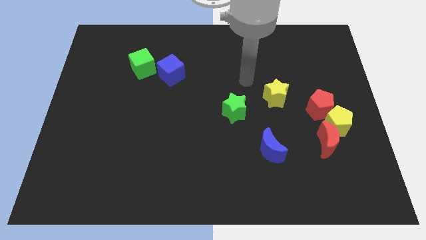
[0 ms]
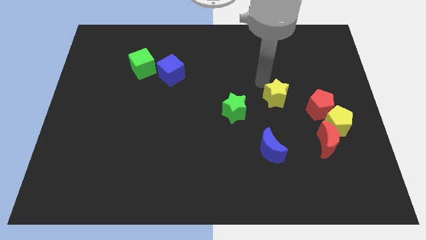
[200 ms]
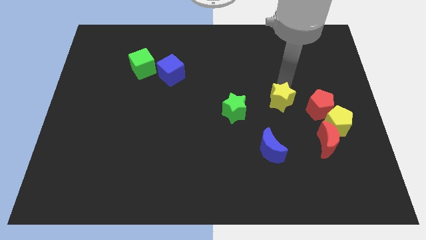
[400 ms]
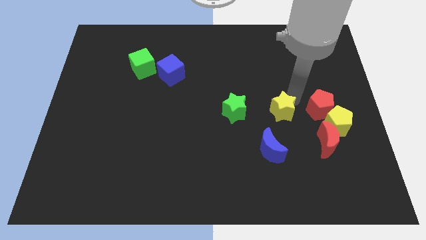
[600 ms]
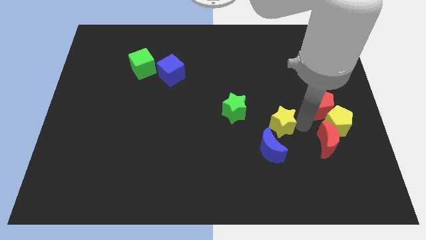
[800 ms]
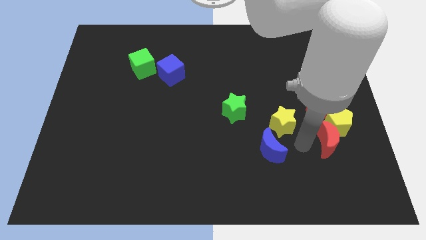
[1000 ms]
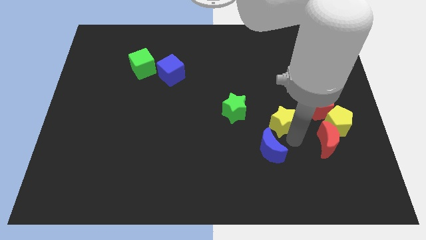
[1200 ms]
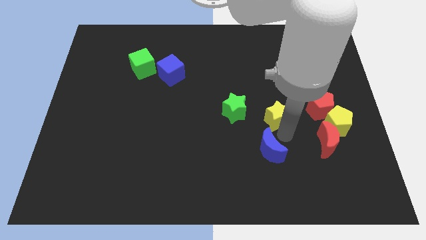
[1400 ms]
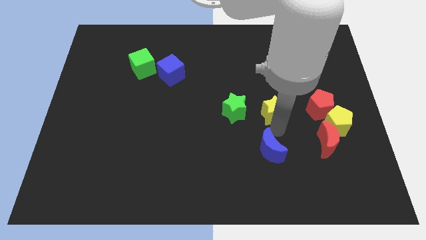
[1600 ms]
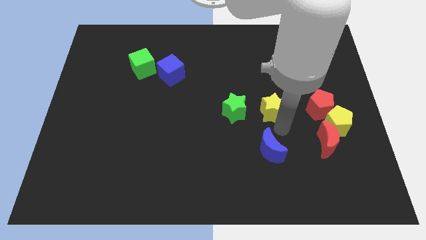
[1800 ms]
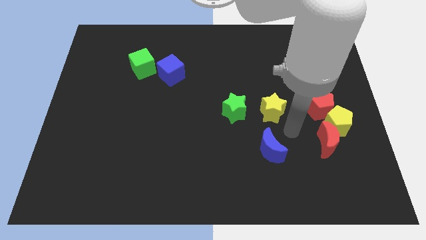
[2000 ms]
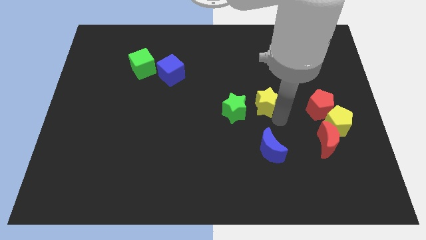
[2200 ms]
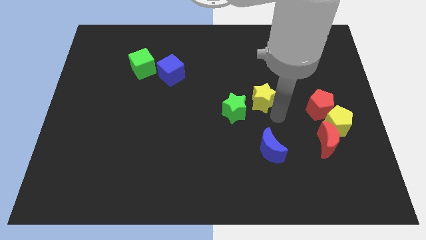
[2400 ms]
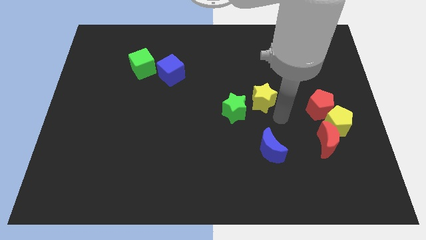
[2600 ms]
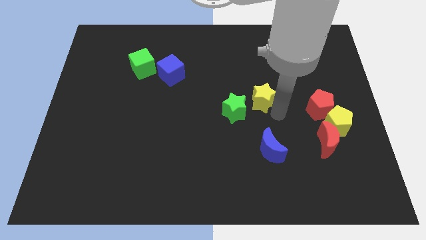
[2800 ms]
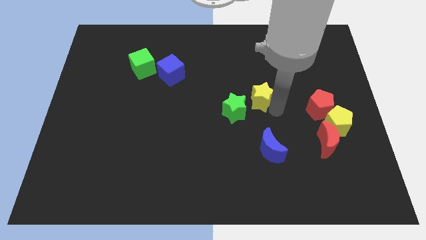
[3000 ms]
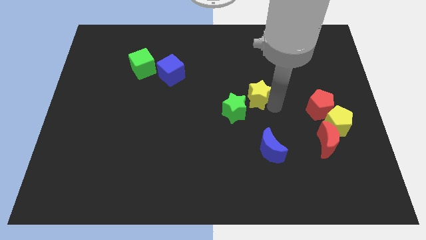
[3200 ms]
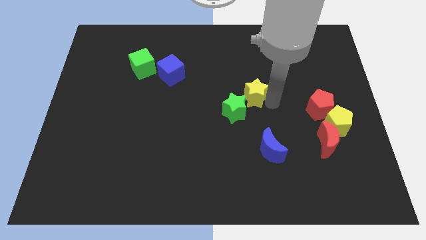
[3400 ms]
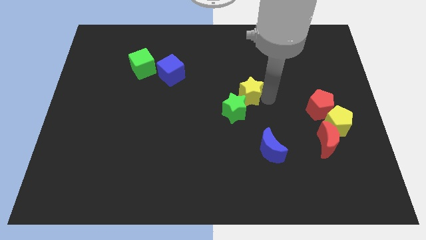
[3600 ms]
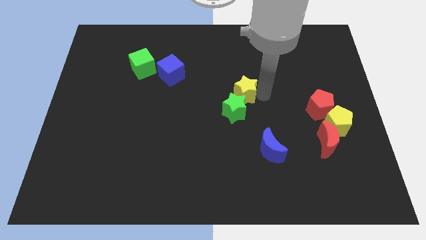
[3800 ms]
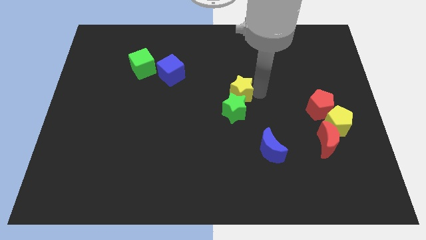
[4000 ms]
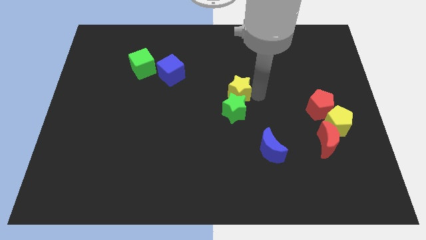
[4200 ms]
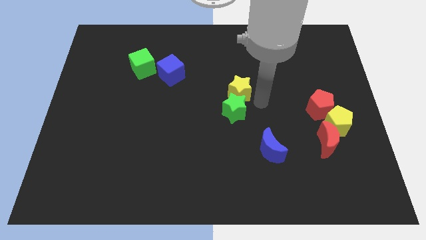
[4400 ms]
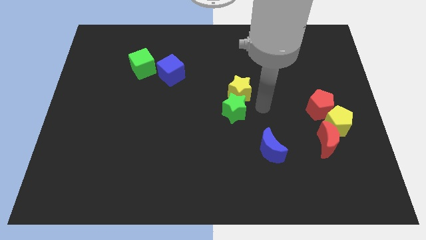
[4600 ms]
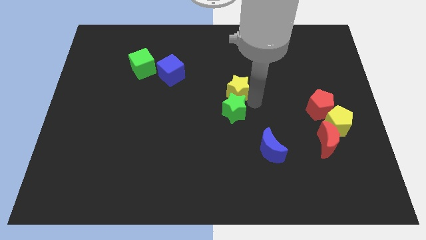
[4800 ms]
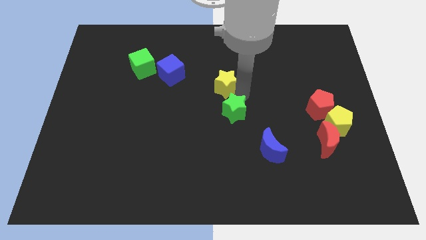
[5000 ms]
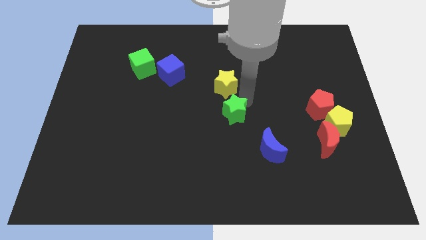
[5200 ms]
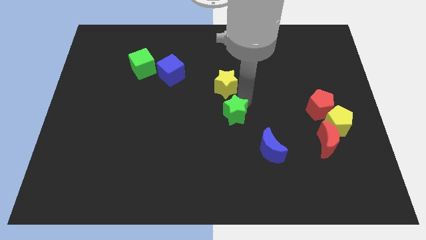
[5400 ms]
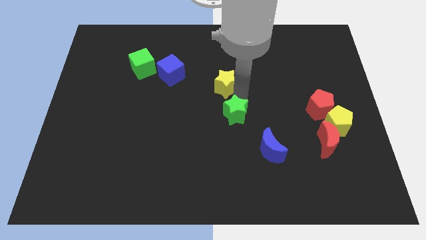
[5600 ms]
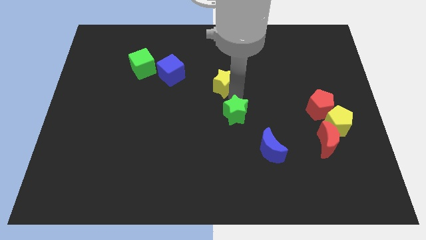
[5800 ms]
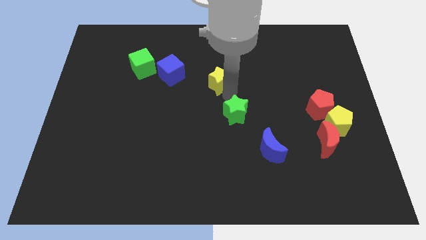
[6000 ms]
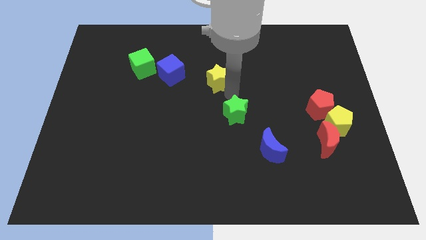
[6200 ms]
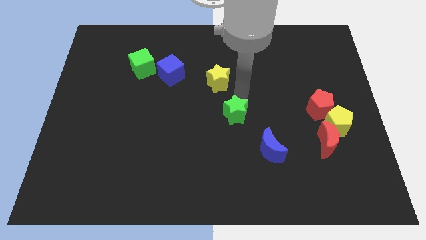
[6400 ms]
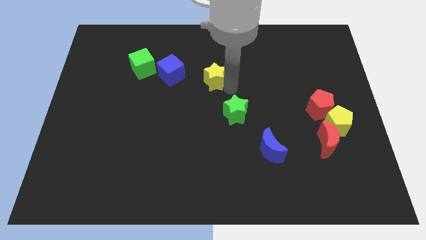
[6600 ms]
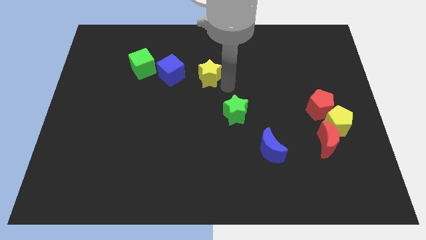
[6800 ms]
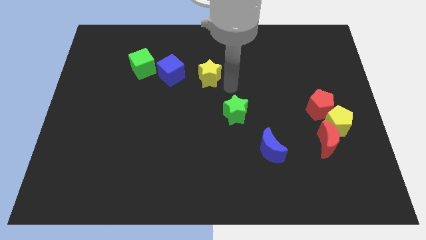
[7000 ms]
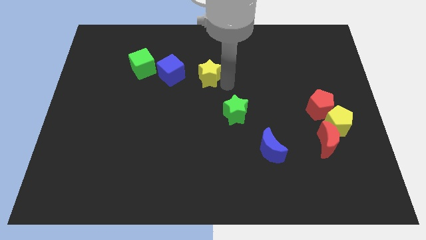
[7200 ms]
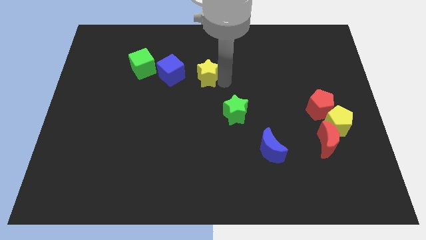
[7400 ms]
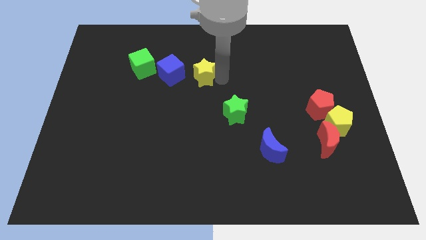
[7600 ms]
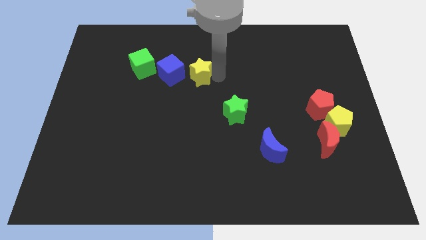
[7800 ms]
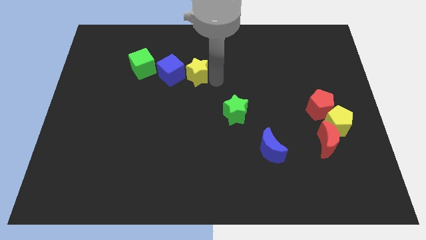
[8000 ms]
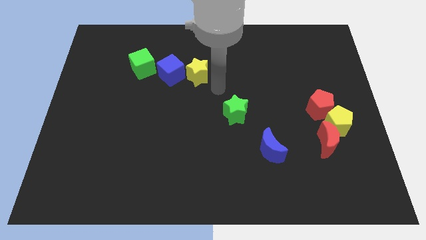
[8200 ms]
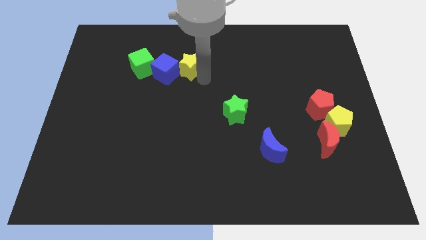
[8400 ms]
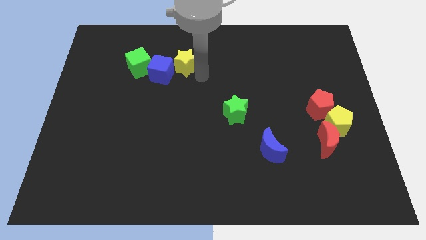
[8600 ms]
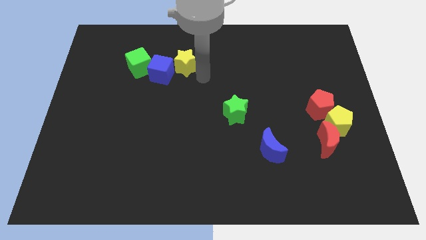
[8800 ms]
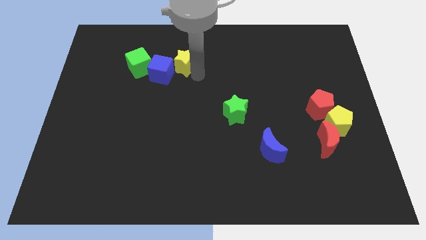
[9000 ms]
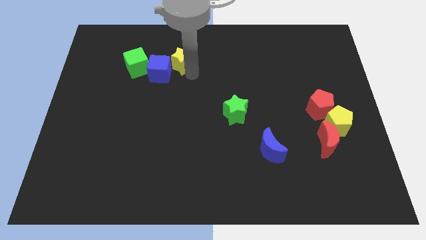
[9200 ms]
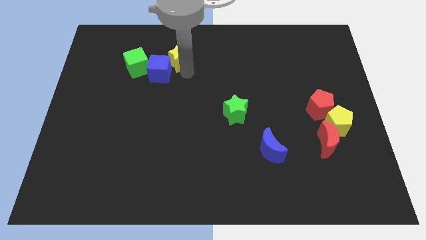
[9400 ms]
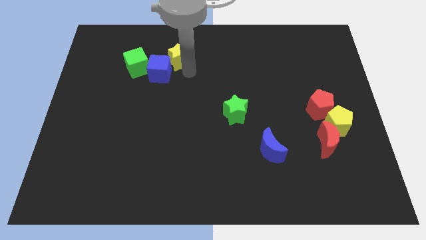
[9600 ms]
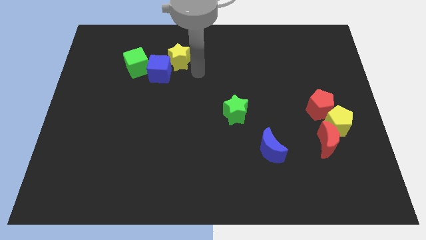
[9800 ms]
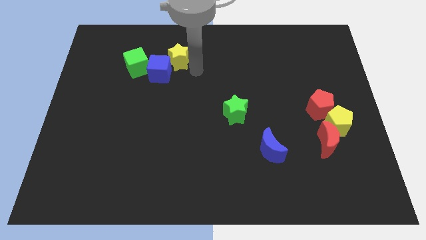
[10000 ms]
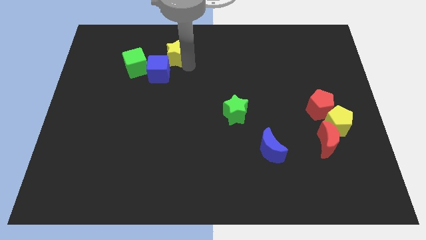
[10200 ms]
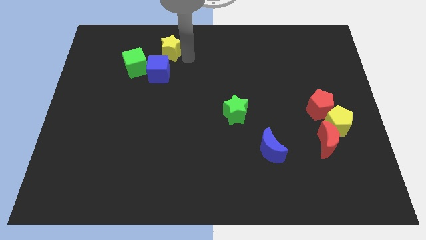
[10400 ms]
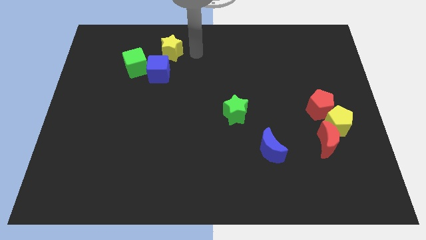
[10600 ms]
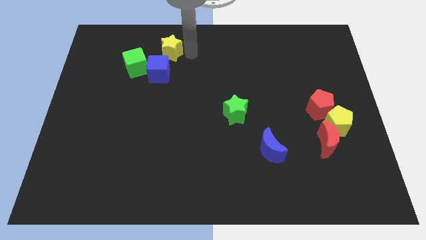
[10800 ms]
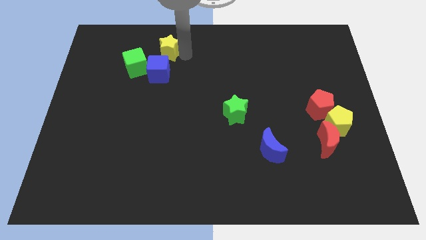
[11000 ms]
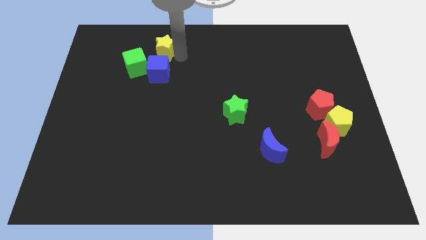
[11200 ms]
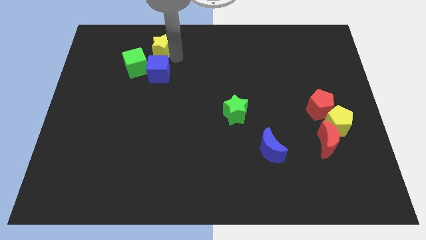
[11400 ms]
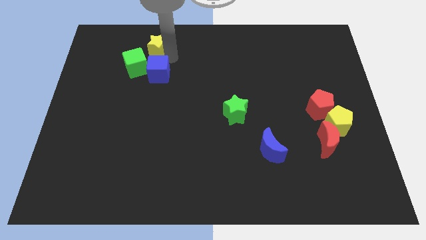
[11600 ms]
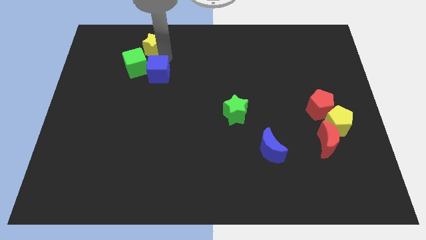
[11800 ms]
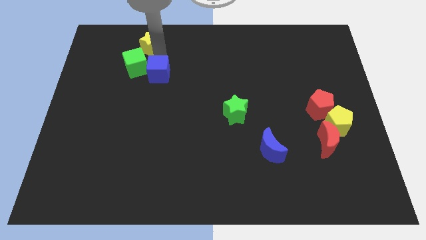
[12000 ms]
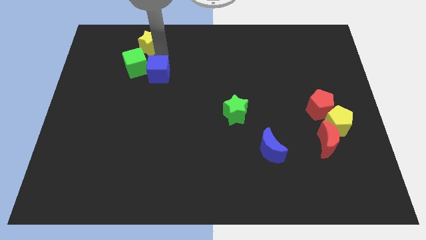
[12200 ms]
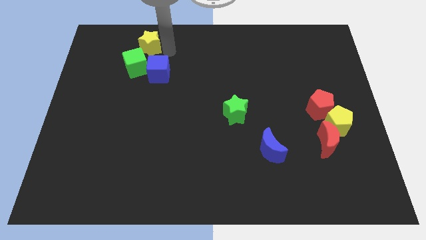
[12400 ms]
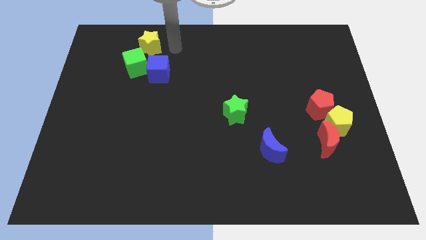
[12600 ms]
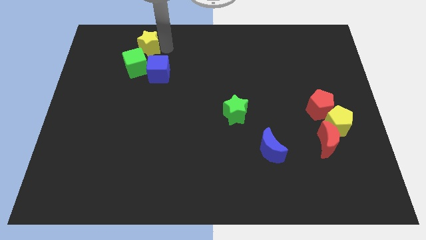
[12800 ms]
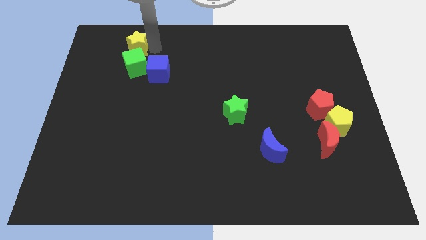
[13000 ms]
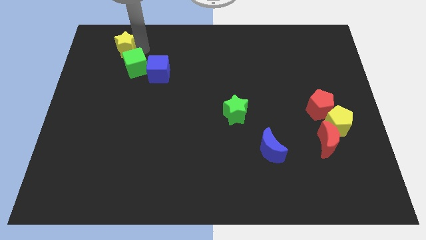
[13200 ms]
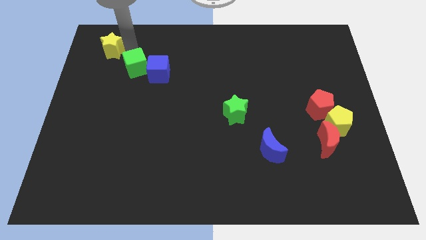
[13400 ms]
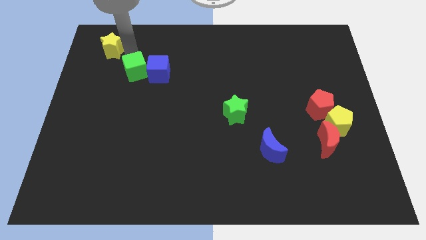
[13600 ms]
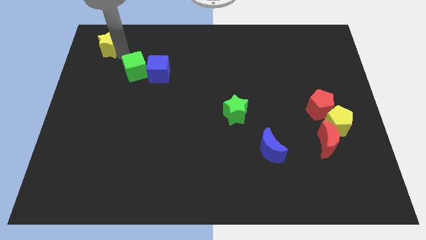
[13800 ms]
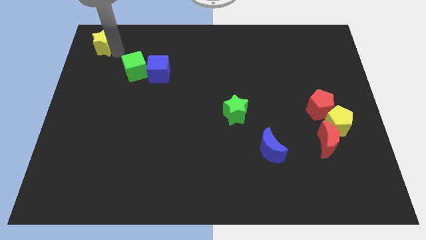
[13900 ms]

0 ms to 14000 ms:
push the yellow star to the upper left corner
